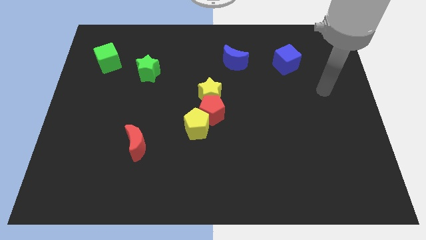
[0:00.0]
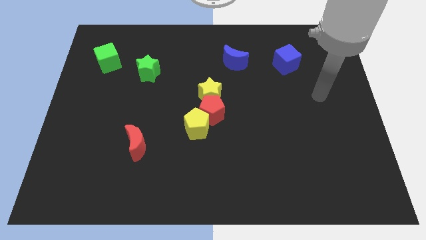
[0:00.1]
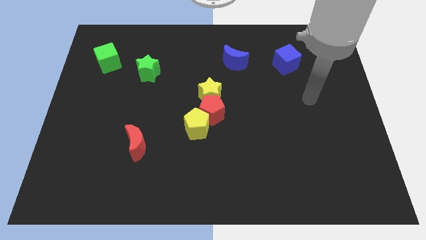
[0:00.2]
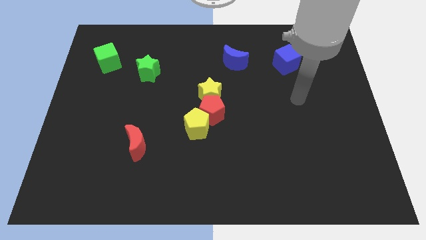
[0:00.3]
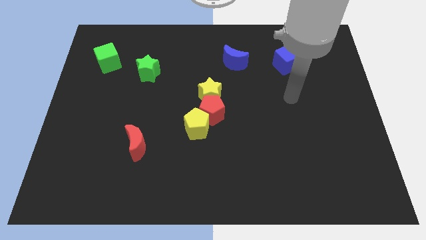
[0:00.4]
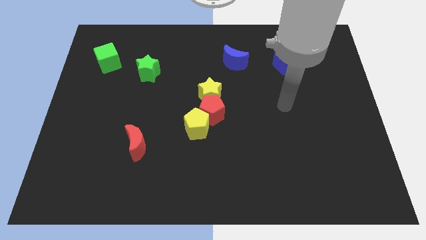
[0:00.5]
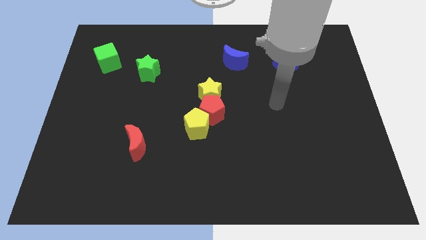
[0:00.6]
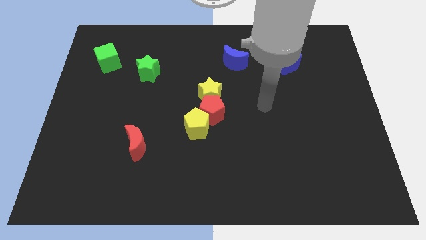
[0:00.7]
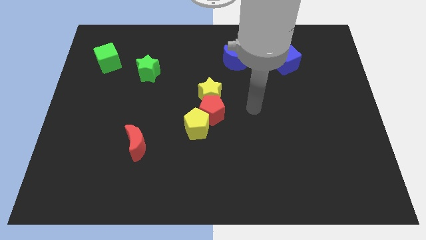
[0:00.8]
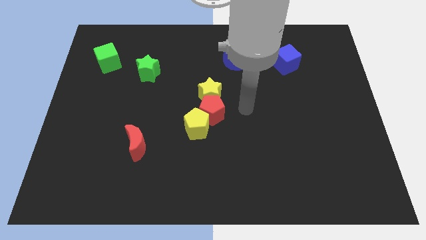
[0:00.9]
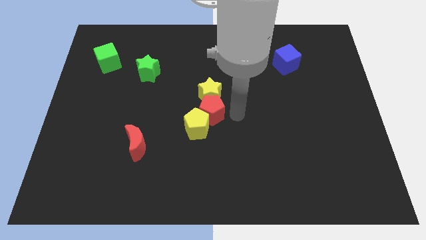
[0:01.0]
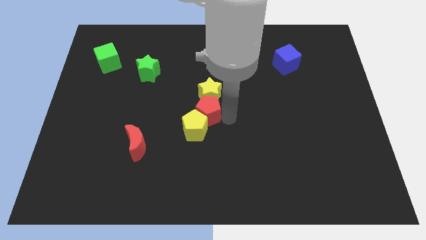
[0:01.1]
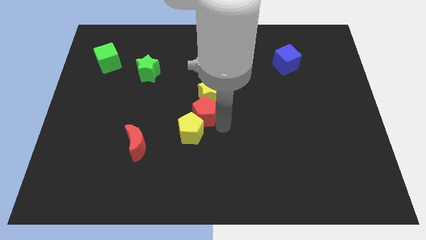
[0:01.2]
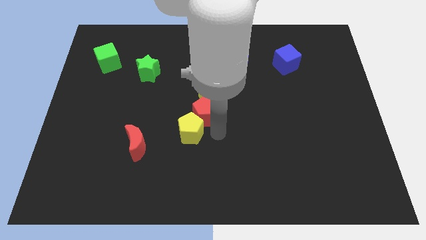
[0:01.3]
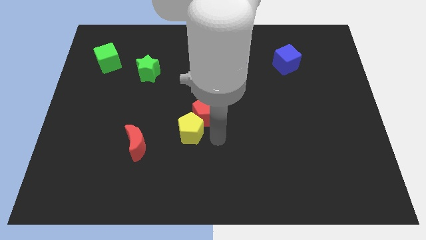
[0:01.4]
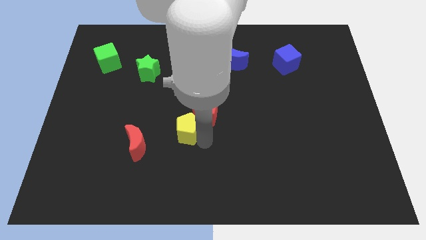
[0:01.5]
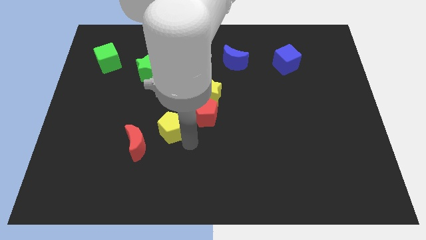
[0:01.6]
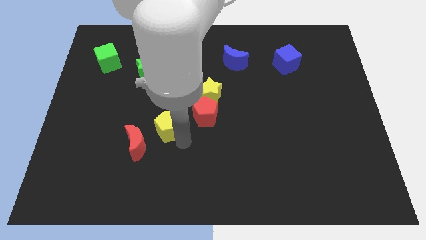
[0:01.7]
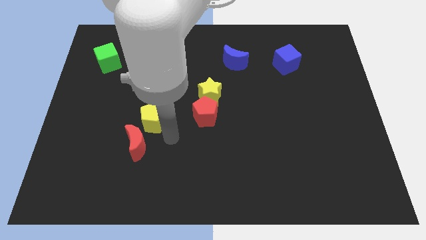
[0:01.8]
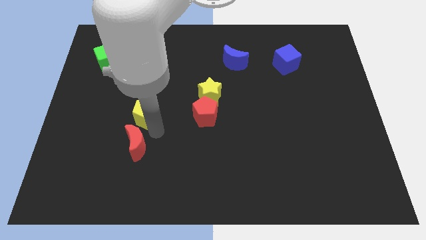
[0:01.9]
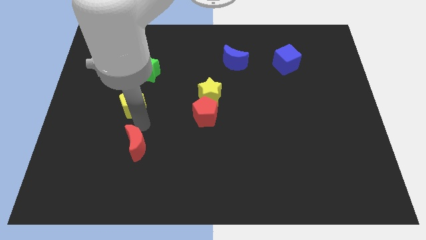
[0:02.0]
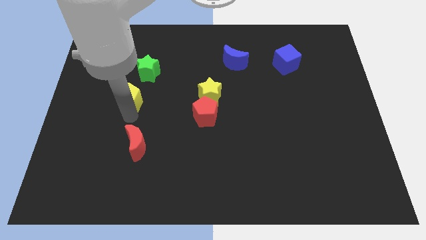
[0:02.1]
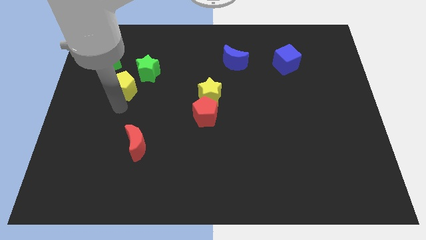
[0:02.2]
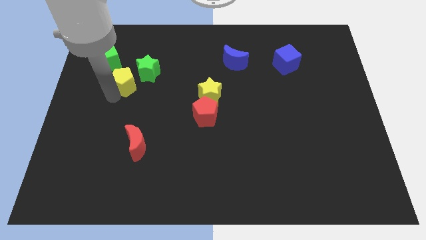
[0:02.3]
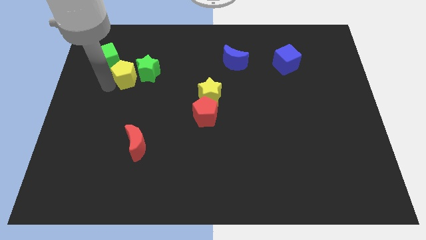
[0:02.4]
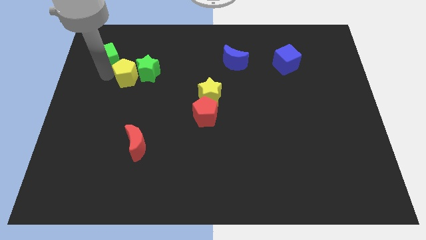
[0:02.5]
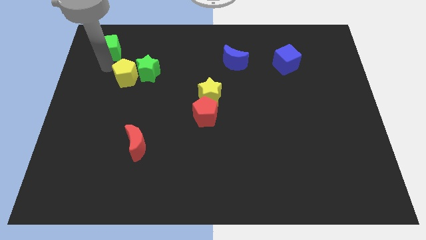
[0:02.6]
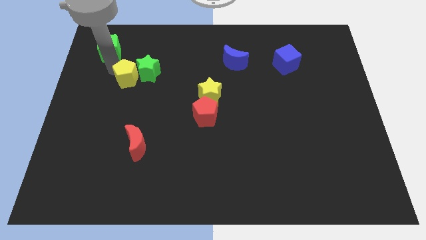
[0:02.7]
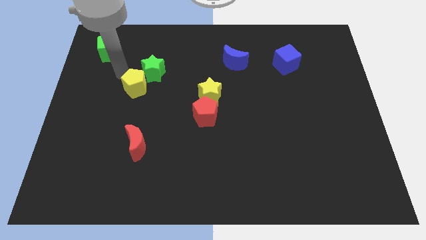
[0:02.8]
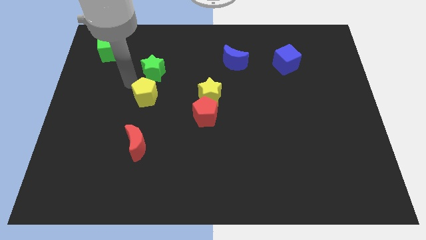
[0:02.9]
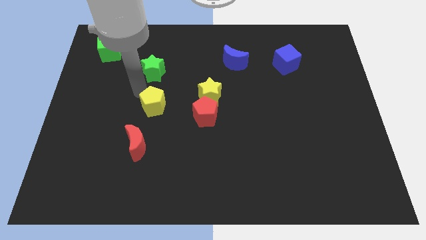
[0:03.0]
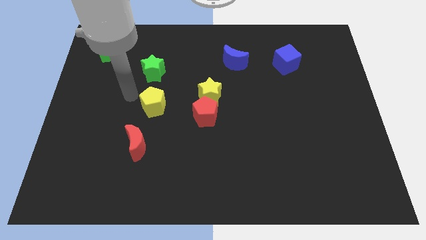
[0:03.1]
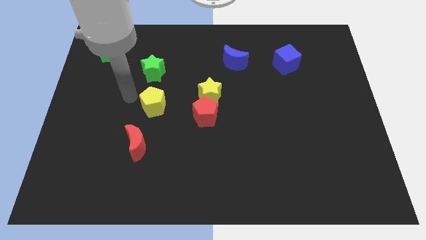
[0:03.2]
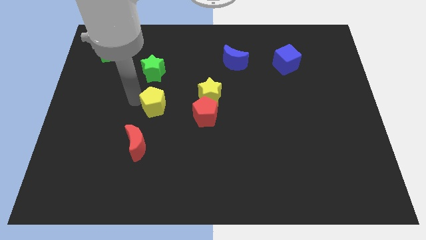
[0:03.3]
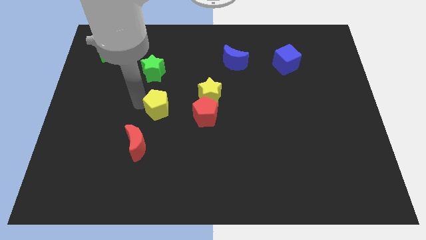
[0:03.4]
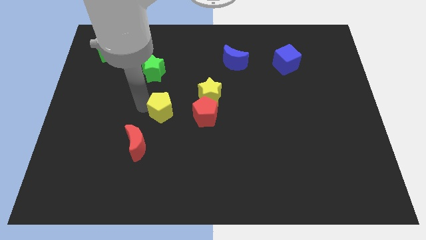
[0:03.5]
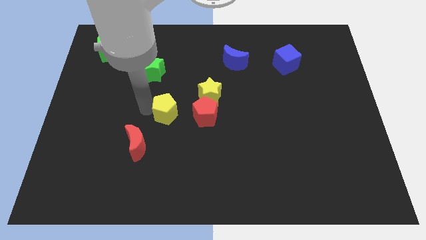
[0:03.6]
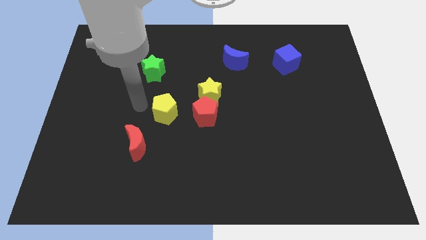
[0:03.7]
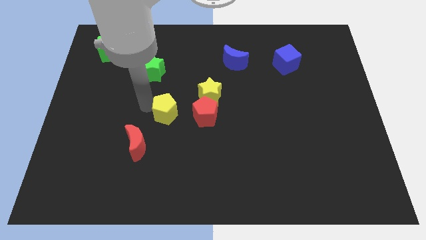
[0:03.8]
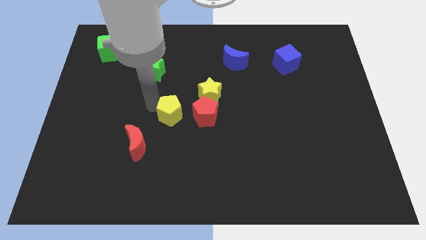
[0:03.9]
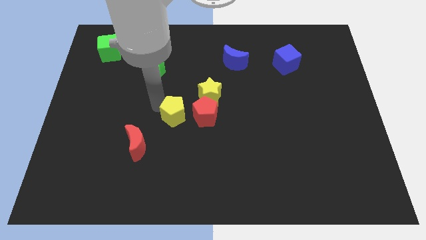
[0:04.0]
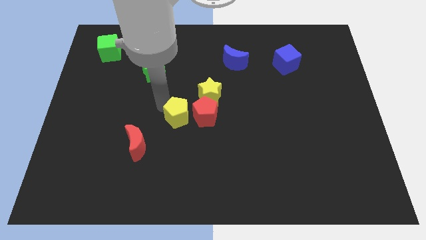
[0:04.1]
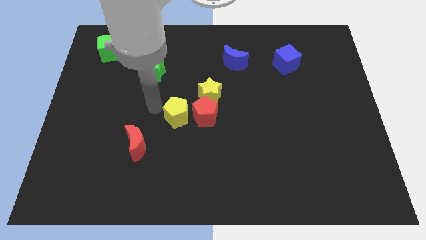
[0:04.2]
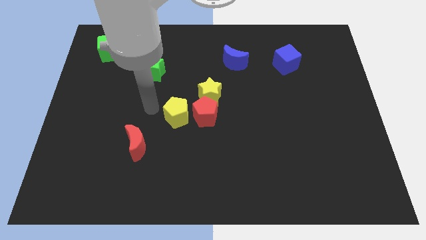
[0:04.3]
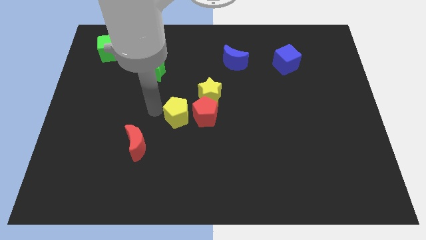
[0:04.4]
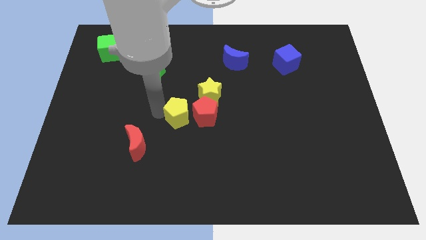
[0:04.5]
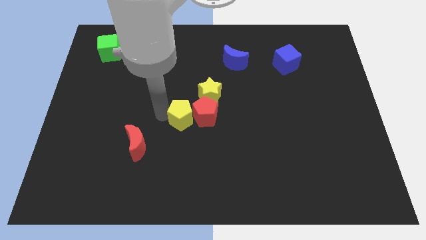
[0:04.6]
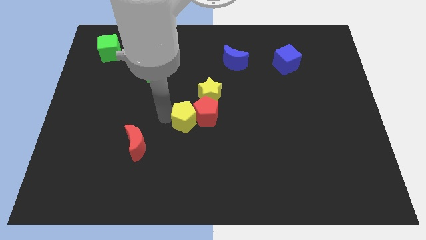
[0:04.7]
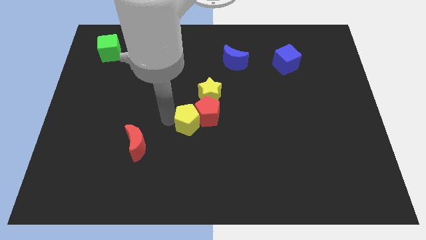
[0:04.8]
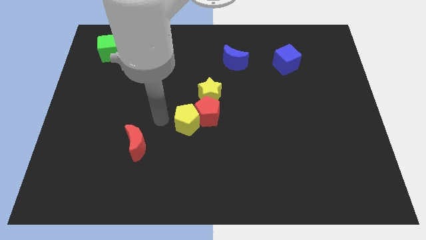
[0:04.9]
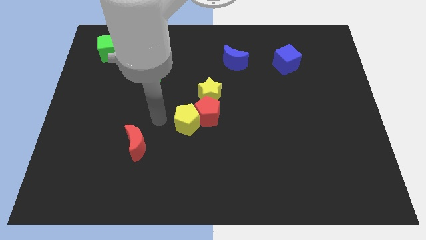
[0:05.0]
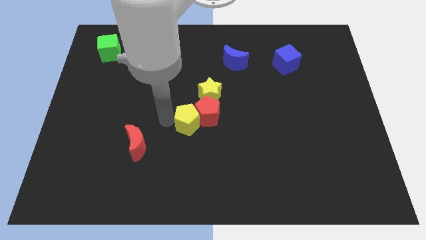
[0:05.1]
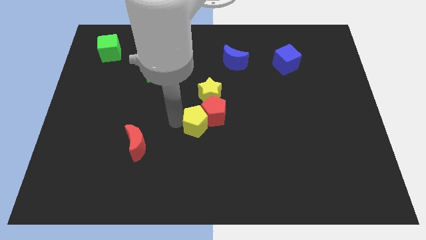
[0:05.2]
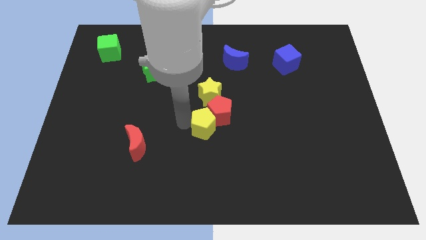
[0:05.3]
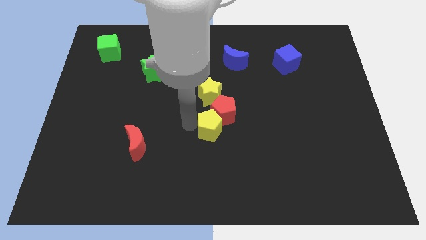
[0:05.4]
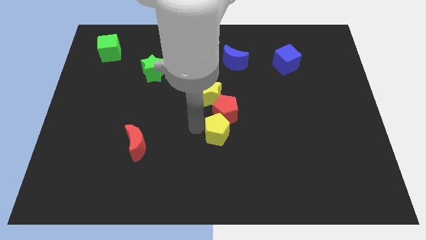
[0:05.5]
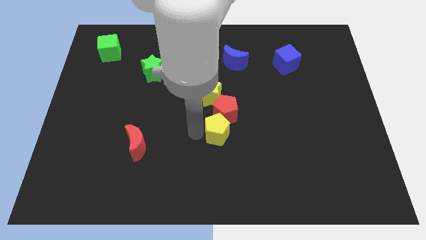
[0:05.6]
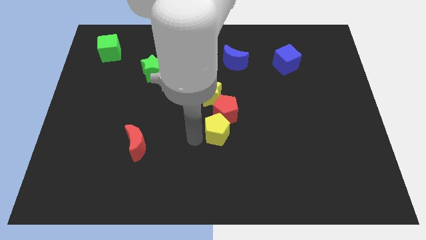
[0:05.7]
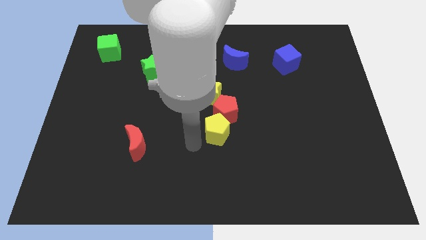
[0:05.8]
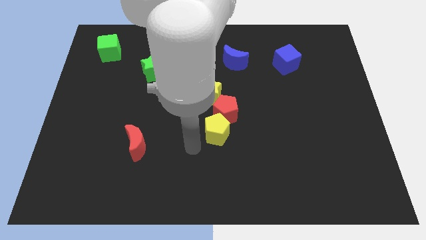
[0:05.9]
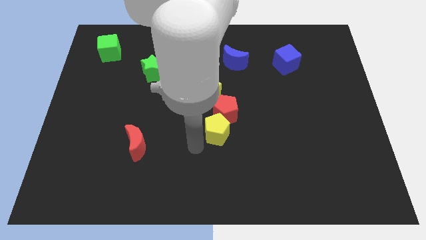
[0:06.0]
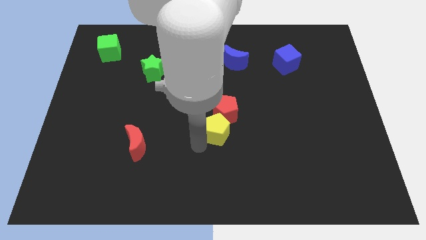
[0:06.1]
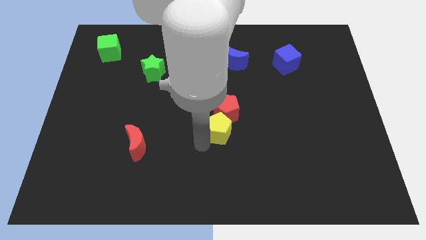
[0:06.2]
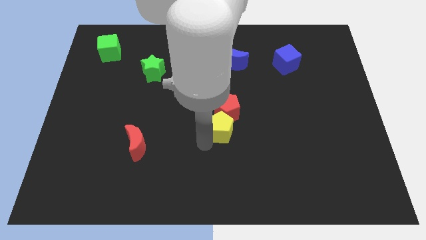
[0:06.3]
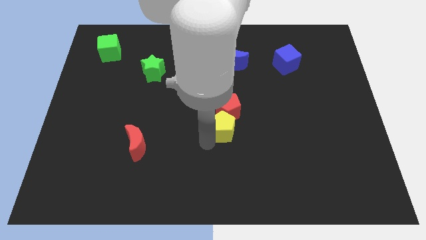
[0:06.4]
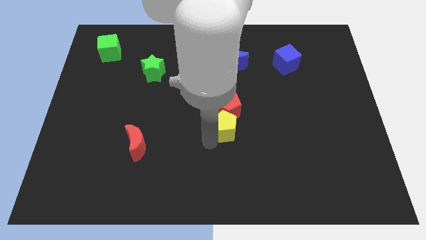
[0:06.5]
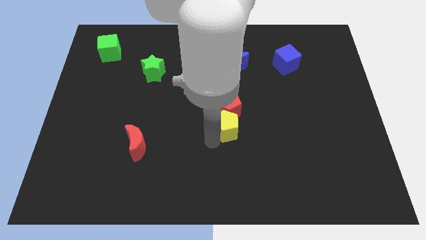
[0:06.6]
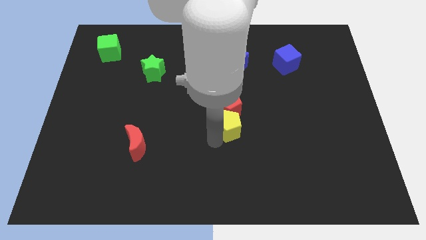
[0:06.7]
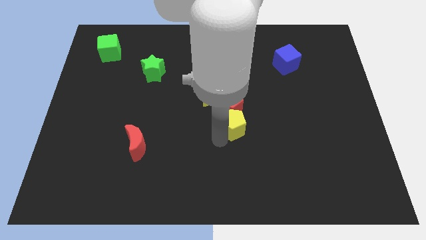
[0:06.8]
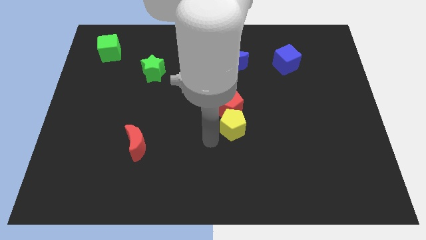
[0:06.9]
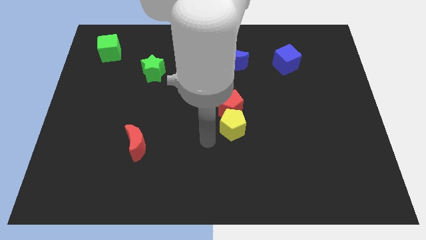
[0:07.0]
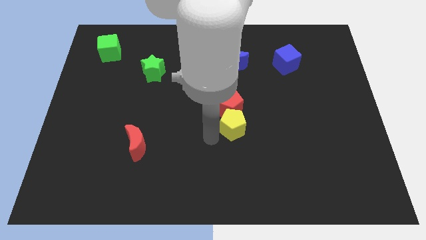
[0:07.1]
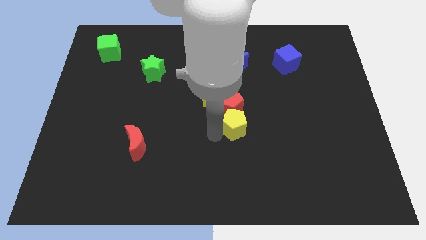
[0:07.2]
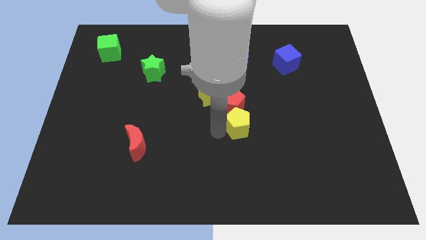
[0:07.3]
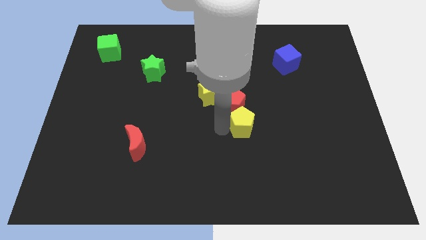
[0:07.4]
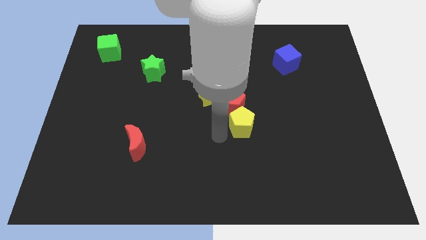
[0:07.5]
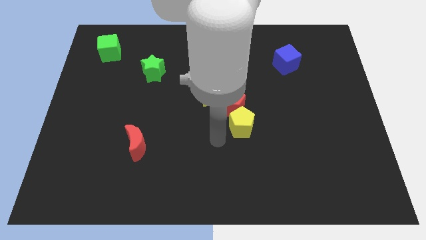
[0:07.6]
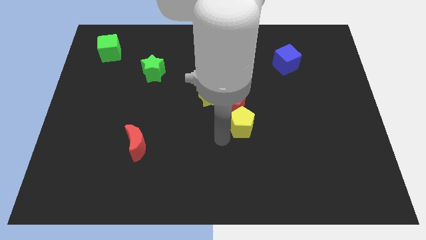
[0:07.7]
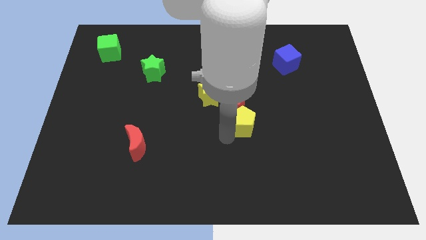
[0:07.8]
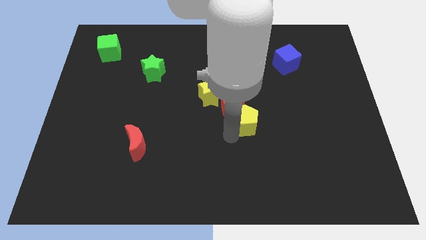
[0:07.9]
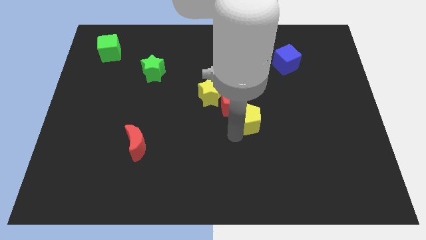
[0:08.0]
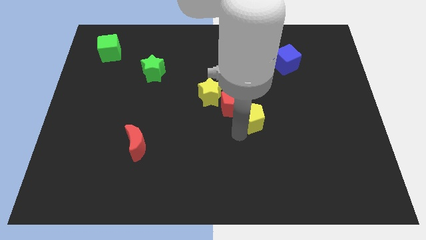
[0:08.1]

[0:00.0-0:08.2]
move the yellow pentagon just right of the red pentagon
